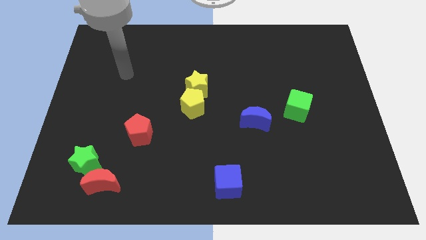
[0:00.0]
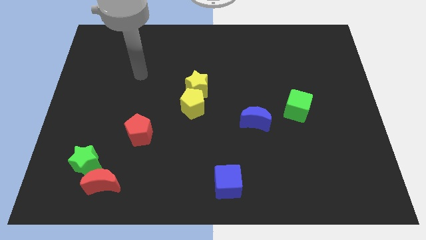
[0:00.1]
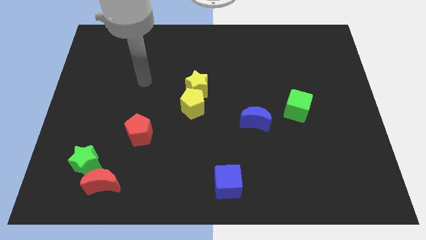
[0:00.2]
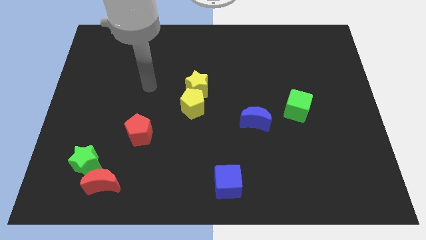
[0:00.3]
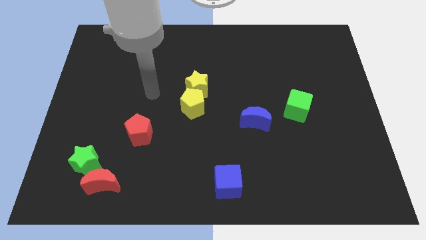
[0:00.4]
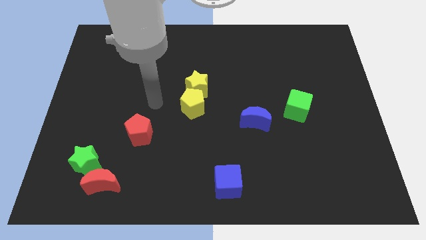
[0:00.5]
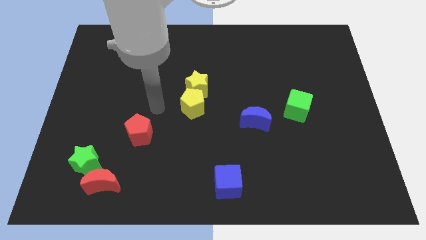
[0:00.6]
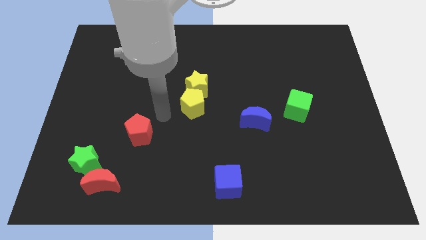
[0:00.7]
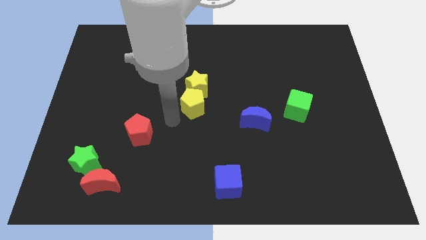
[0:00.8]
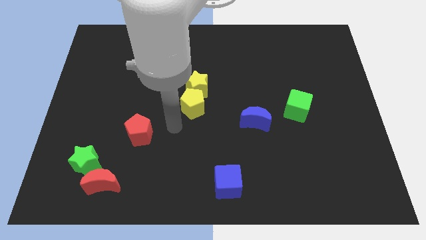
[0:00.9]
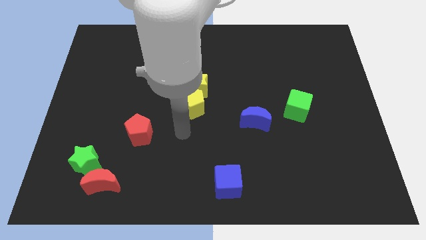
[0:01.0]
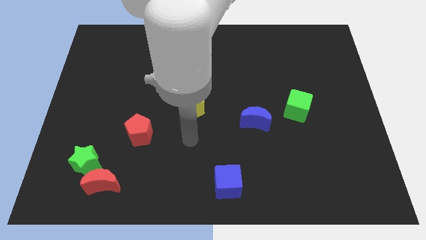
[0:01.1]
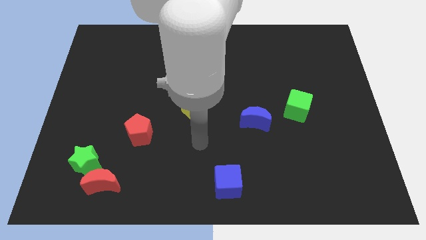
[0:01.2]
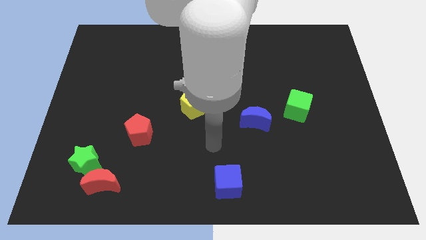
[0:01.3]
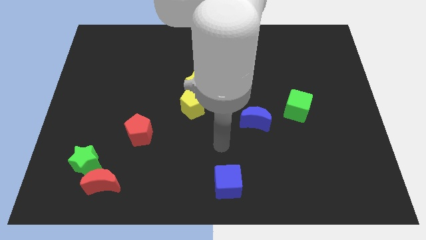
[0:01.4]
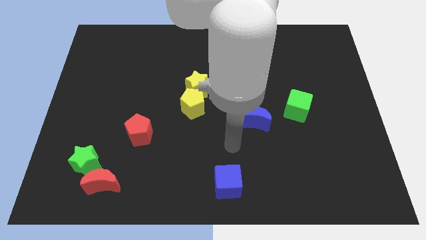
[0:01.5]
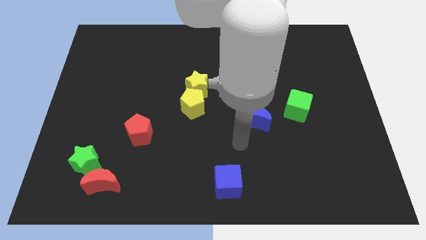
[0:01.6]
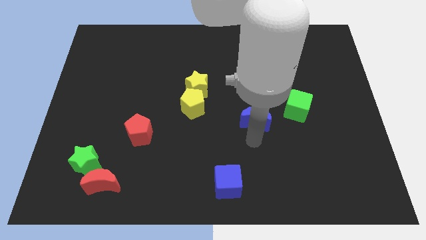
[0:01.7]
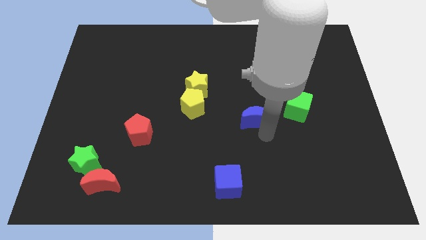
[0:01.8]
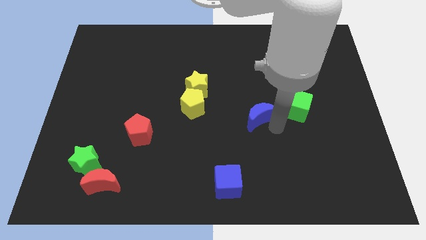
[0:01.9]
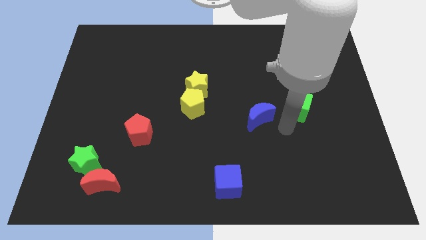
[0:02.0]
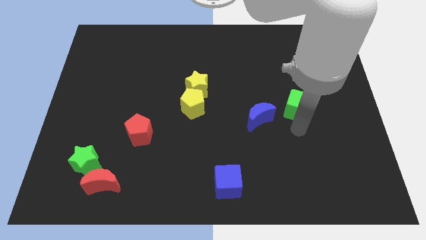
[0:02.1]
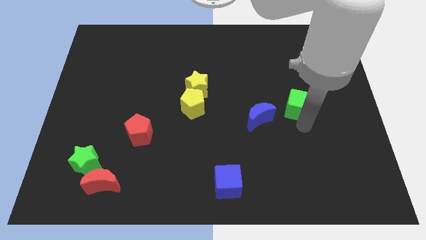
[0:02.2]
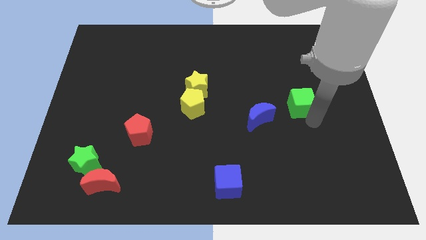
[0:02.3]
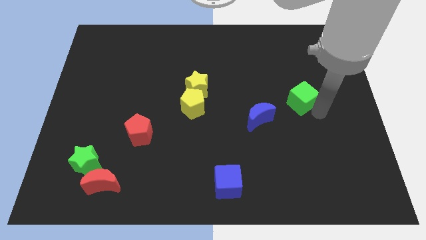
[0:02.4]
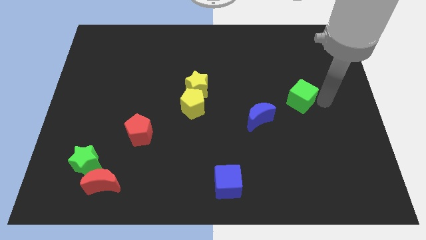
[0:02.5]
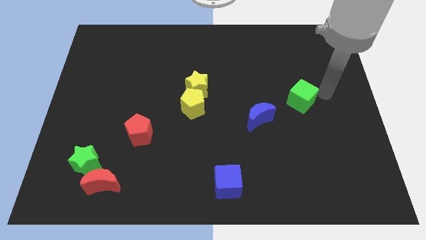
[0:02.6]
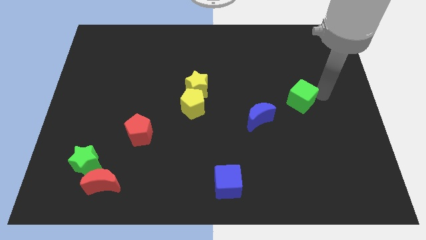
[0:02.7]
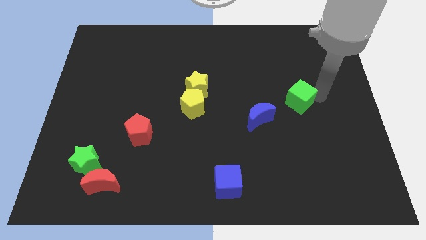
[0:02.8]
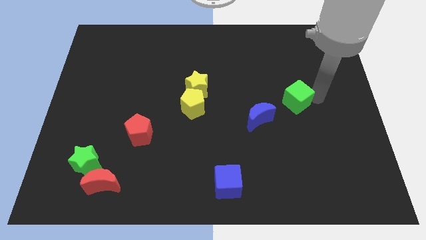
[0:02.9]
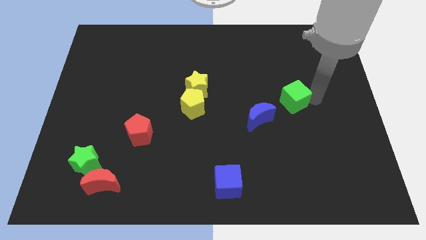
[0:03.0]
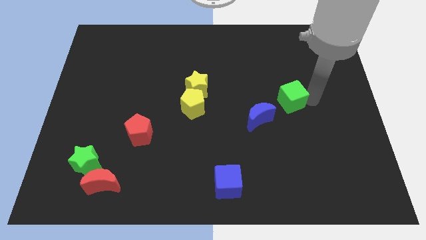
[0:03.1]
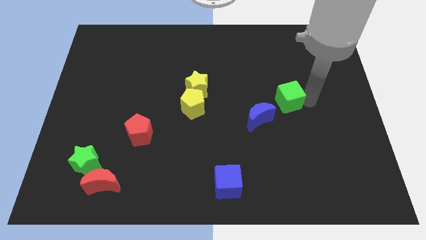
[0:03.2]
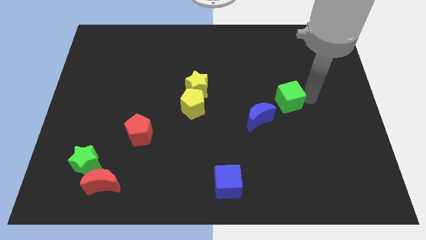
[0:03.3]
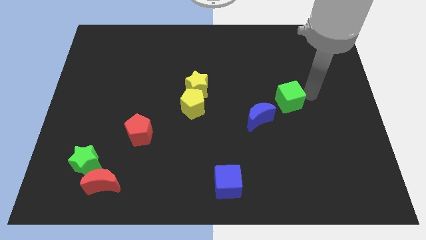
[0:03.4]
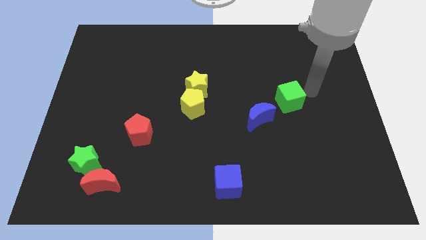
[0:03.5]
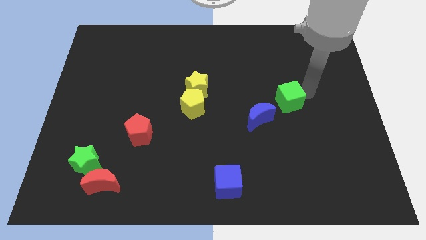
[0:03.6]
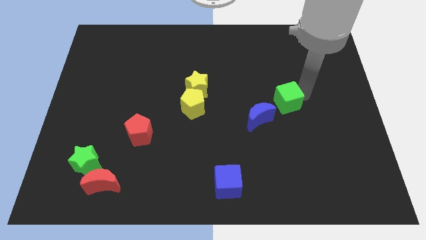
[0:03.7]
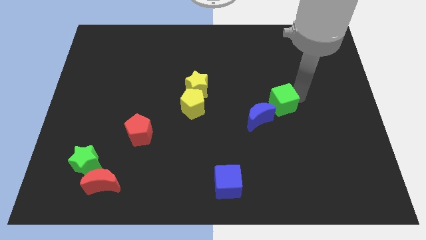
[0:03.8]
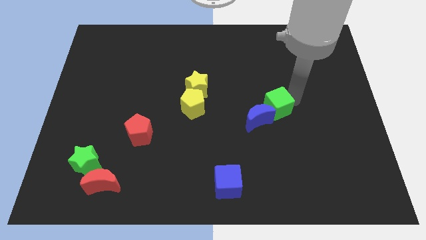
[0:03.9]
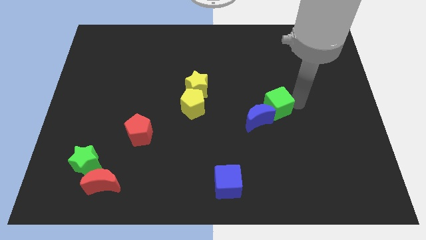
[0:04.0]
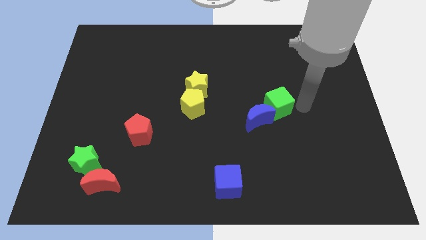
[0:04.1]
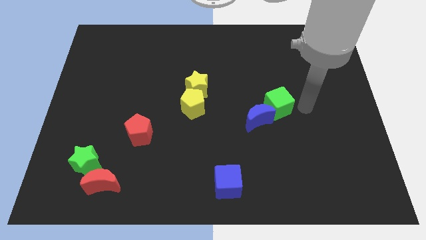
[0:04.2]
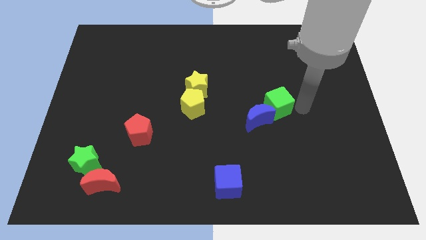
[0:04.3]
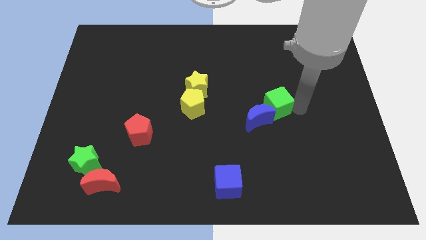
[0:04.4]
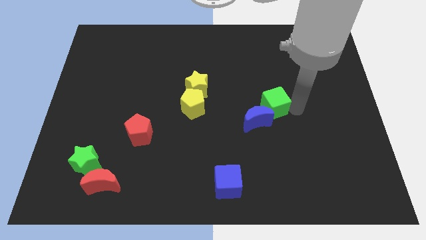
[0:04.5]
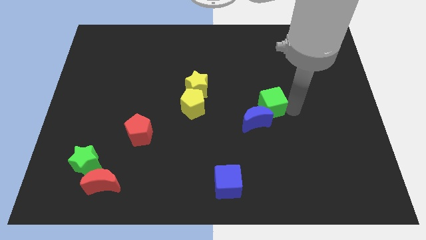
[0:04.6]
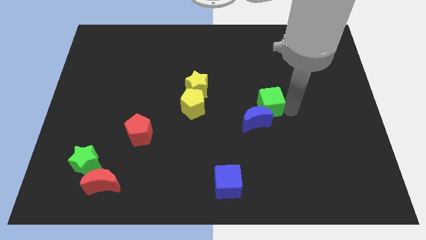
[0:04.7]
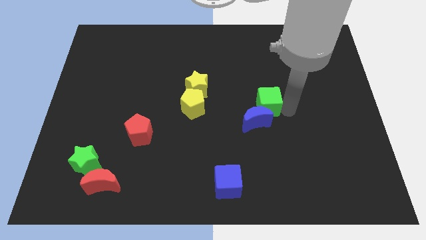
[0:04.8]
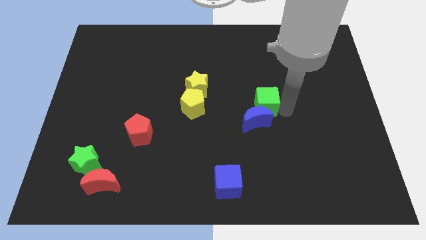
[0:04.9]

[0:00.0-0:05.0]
put the green cube to the center of the board
